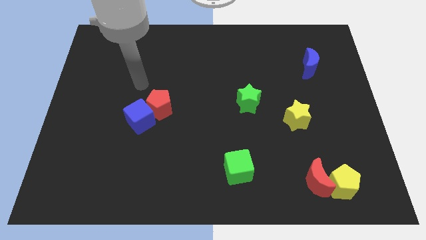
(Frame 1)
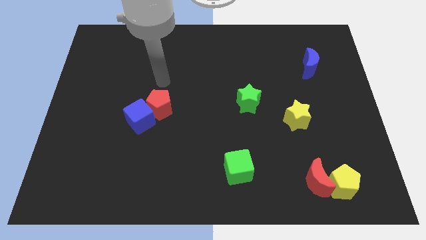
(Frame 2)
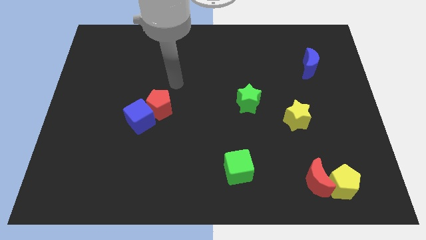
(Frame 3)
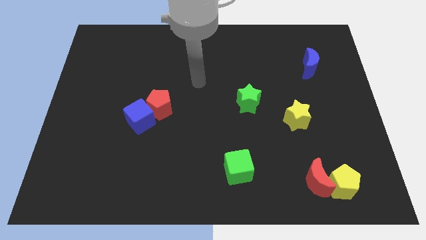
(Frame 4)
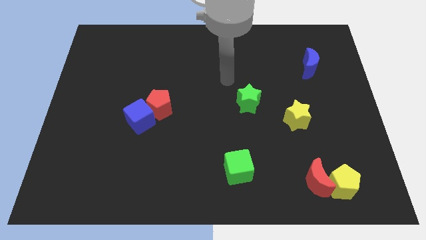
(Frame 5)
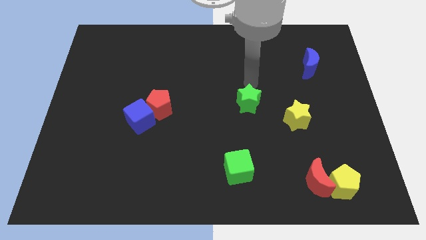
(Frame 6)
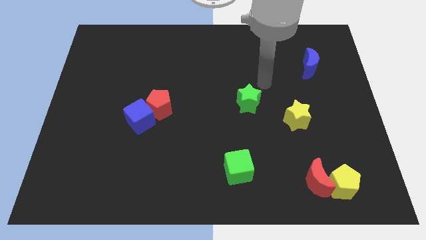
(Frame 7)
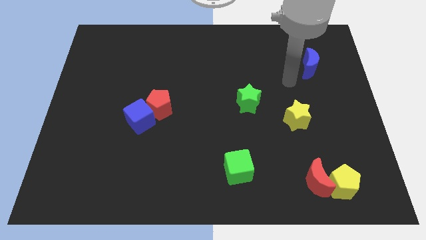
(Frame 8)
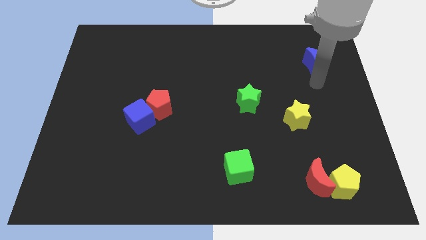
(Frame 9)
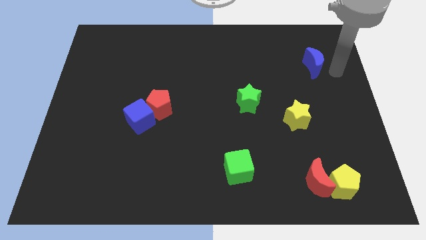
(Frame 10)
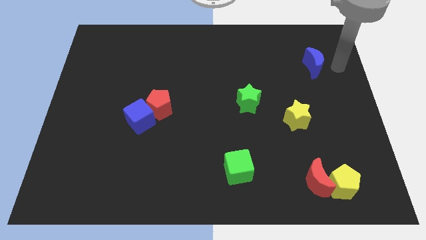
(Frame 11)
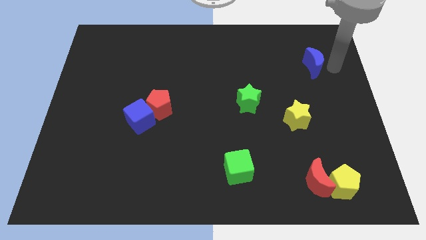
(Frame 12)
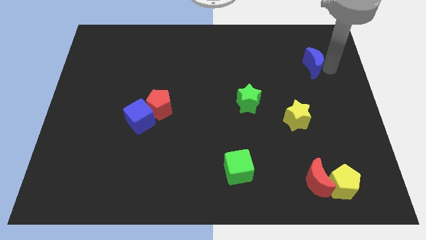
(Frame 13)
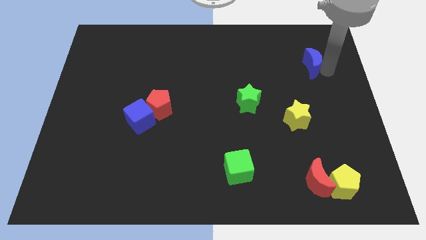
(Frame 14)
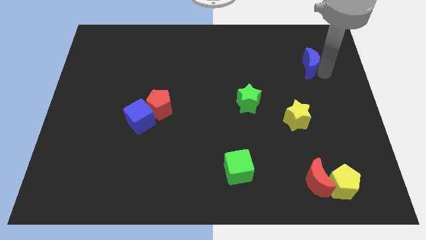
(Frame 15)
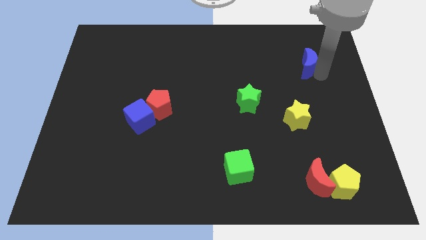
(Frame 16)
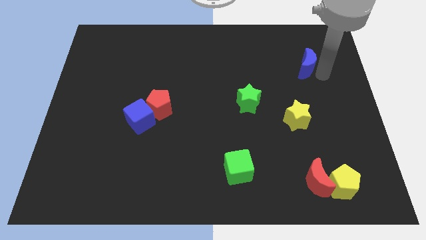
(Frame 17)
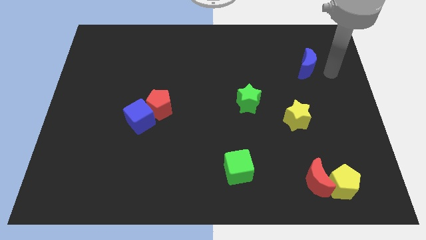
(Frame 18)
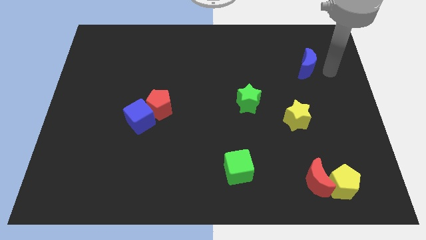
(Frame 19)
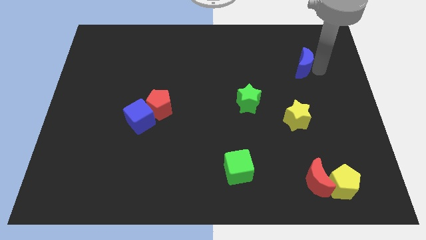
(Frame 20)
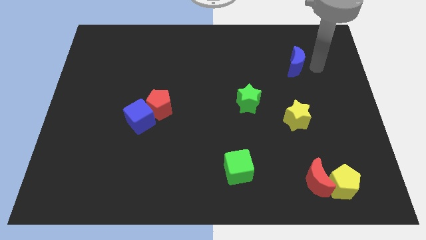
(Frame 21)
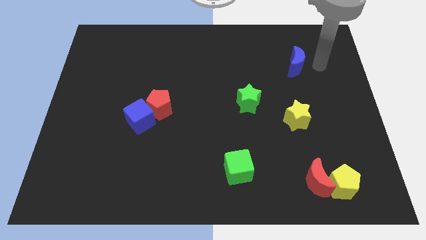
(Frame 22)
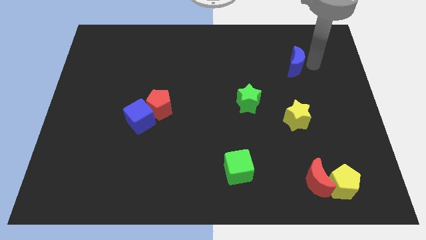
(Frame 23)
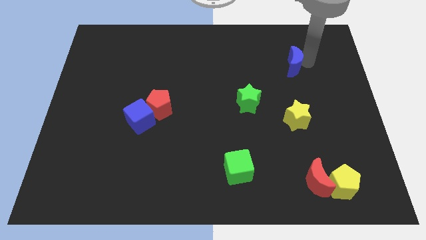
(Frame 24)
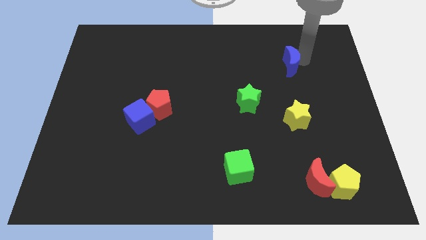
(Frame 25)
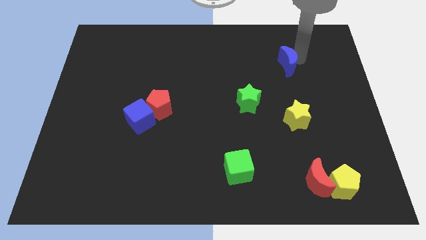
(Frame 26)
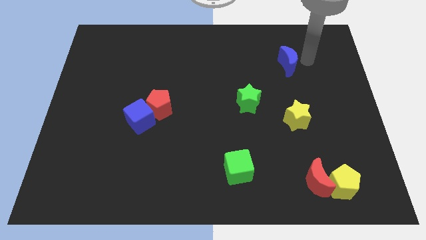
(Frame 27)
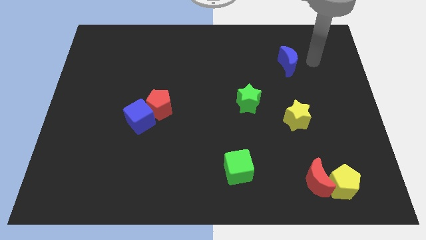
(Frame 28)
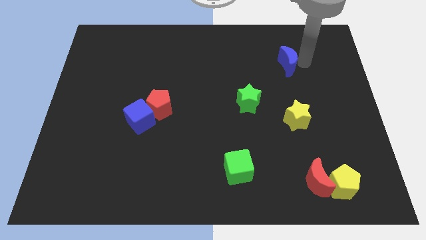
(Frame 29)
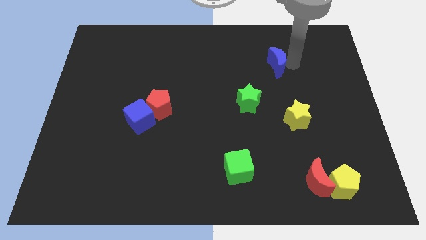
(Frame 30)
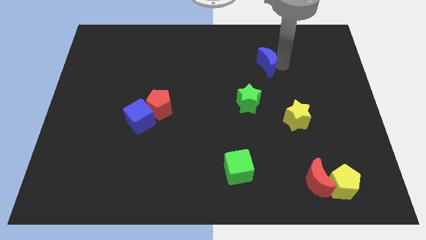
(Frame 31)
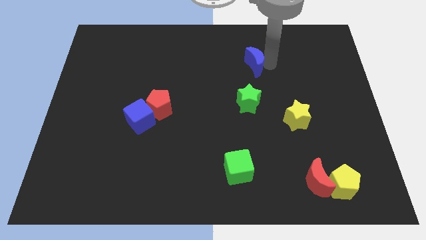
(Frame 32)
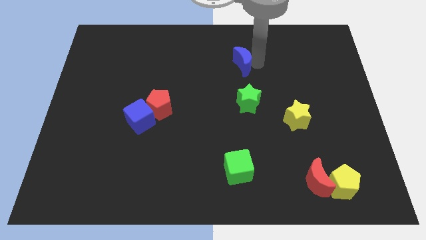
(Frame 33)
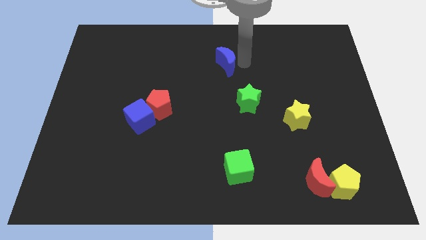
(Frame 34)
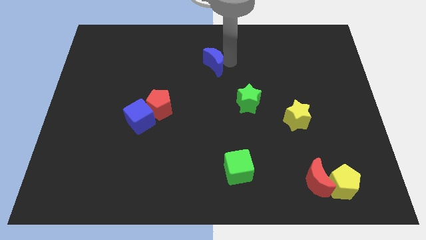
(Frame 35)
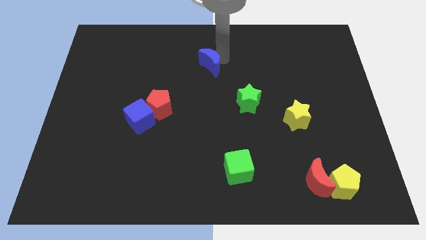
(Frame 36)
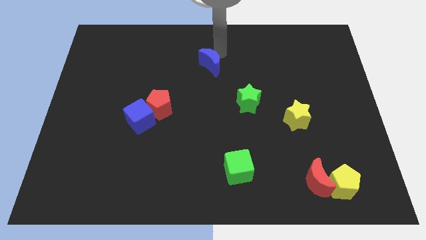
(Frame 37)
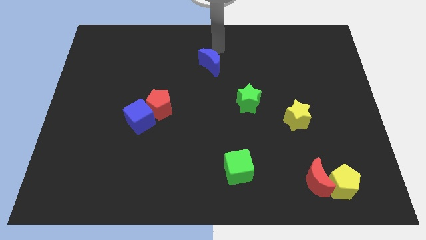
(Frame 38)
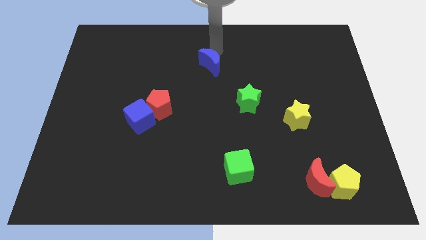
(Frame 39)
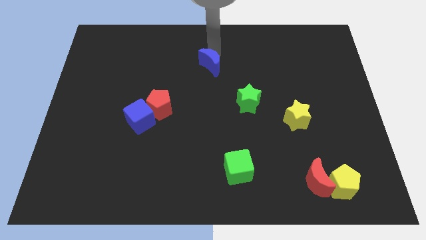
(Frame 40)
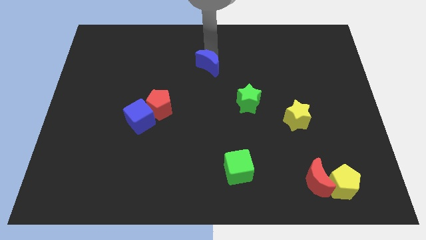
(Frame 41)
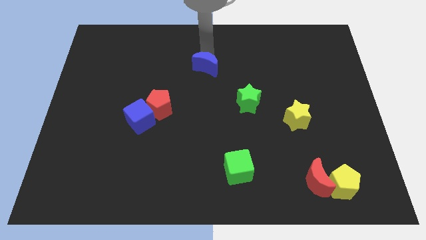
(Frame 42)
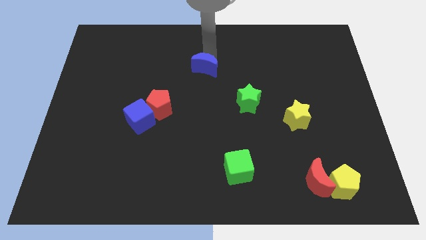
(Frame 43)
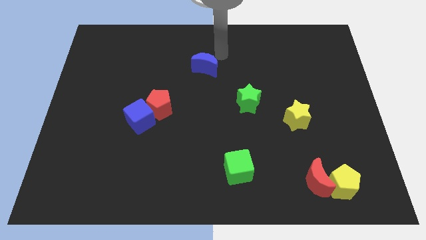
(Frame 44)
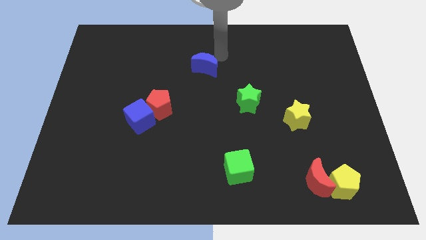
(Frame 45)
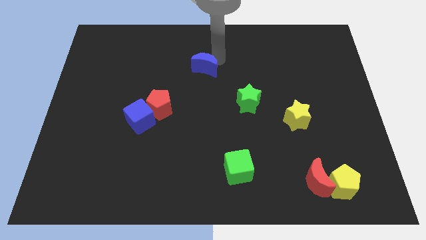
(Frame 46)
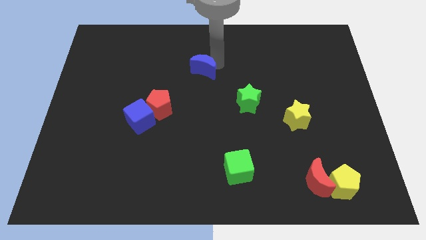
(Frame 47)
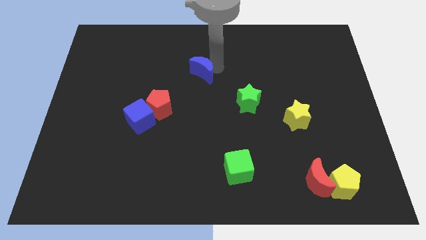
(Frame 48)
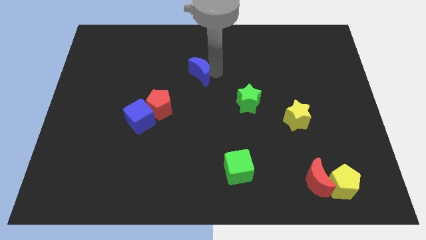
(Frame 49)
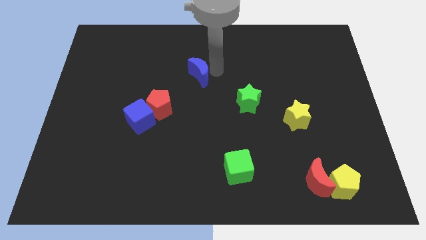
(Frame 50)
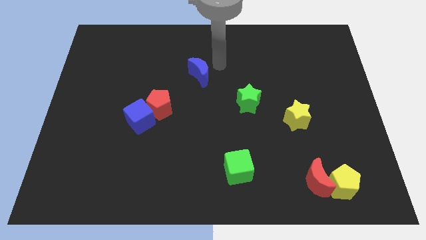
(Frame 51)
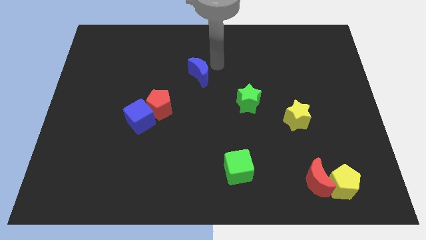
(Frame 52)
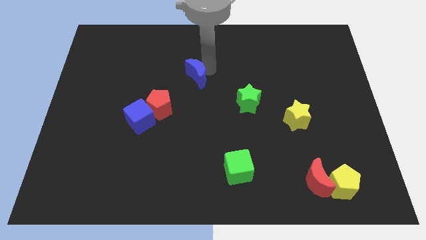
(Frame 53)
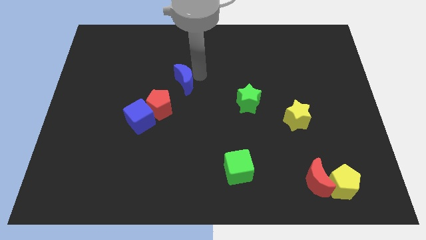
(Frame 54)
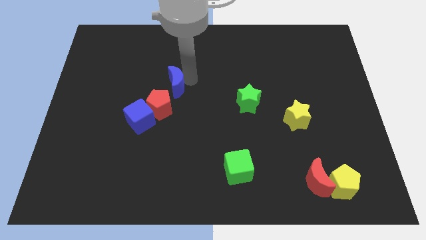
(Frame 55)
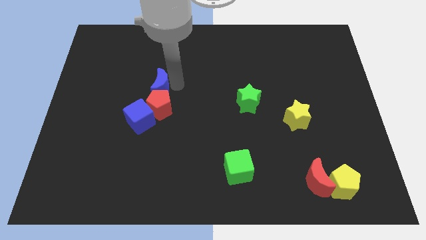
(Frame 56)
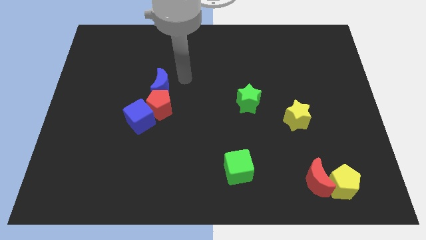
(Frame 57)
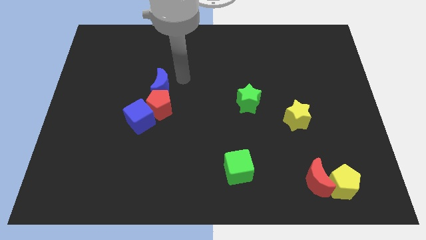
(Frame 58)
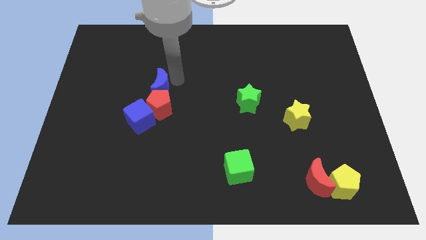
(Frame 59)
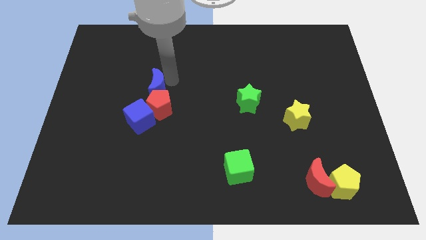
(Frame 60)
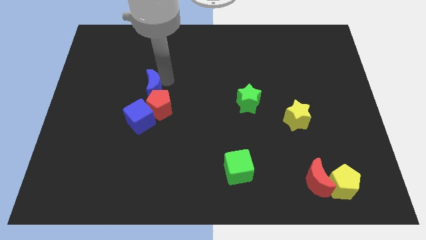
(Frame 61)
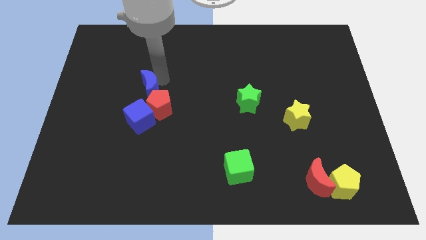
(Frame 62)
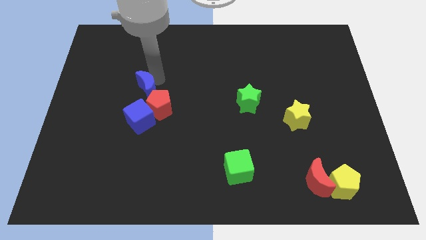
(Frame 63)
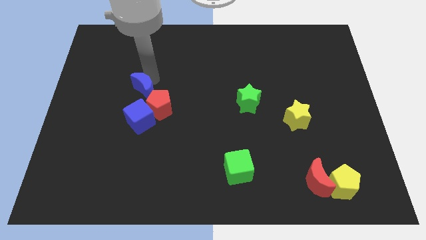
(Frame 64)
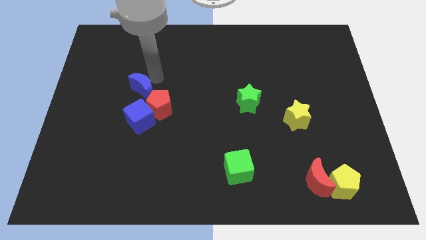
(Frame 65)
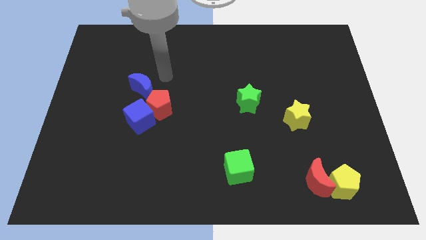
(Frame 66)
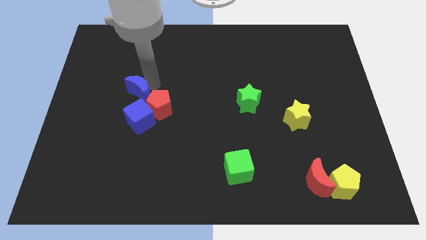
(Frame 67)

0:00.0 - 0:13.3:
push the blue moon to the left side of the red pentagon
